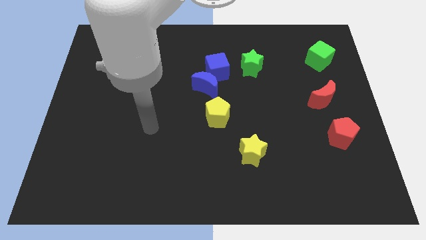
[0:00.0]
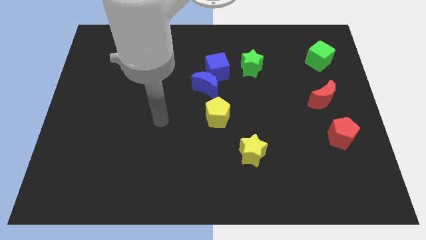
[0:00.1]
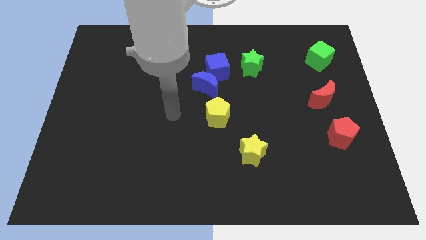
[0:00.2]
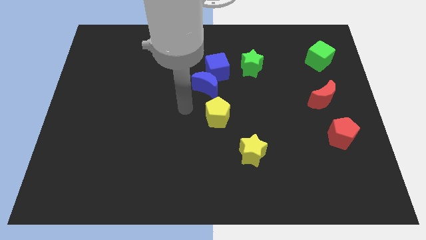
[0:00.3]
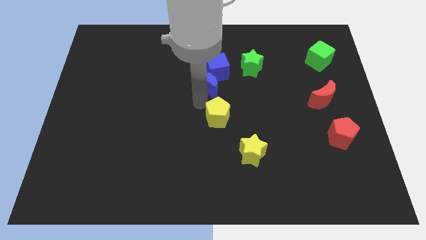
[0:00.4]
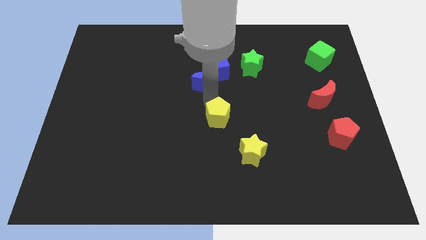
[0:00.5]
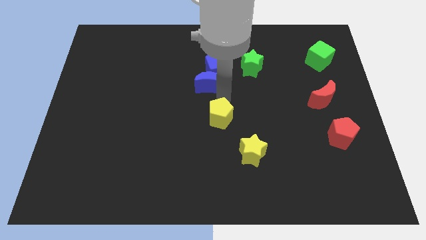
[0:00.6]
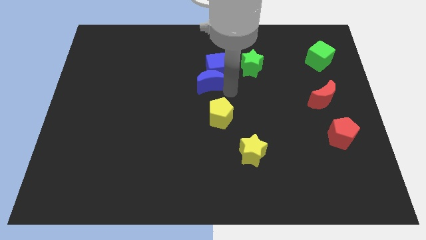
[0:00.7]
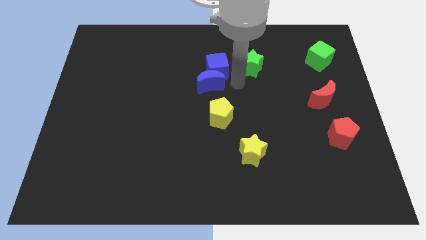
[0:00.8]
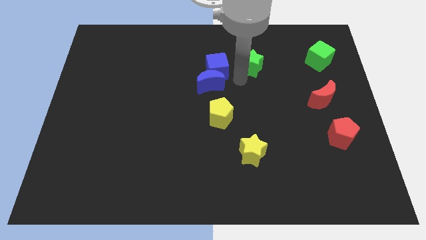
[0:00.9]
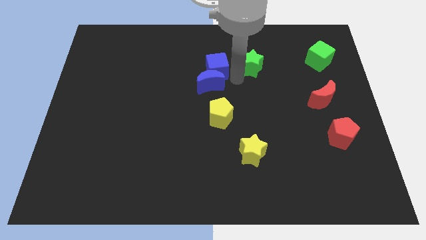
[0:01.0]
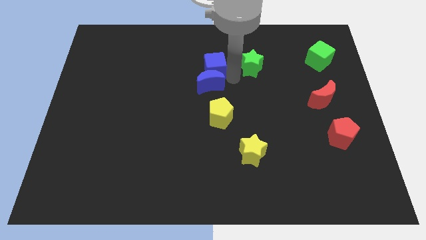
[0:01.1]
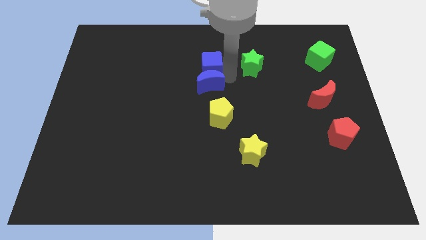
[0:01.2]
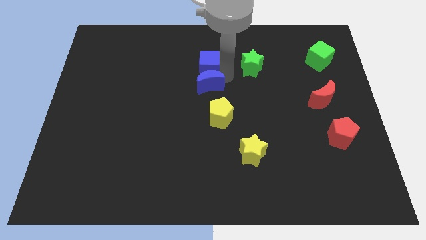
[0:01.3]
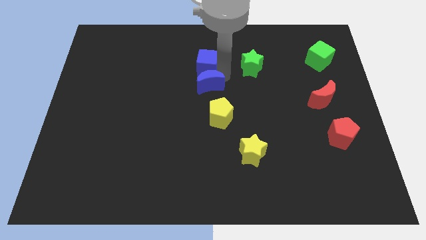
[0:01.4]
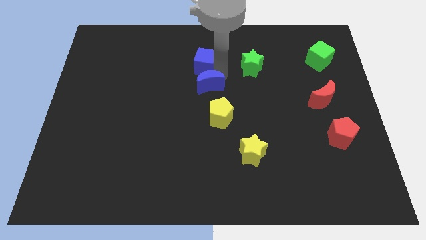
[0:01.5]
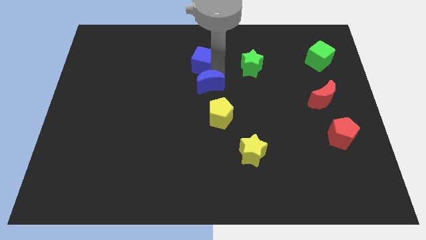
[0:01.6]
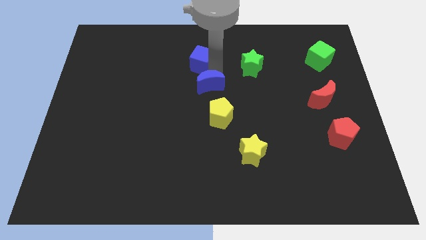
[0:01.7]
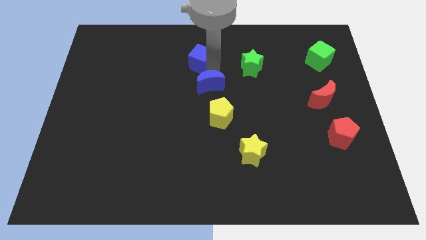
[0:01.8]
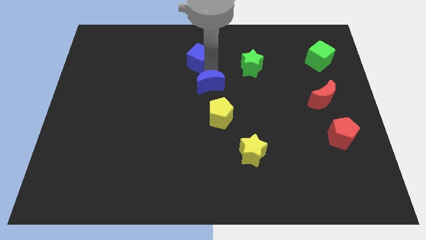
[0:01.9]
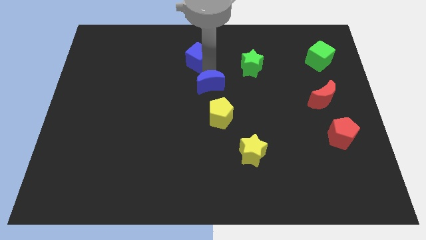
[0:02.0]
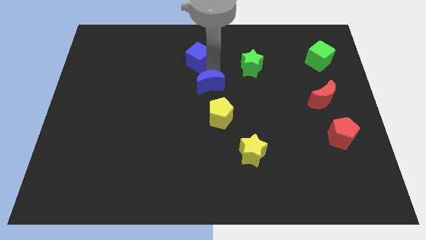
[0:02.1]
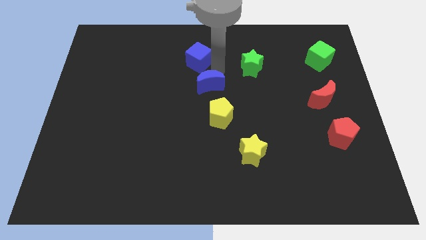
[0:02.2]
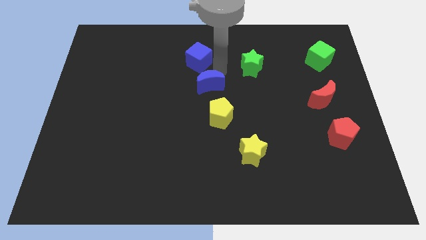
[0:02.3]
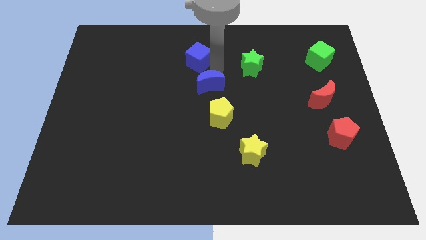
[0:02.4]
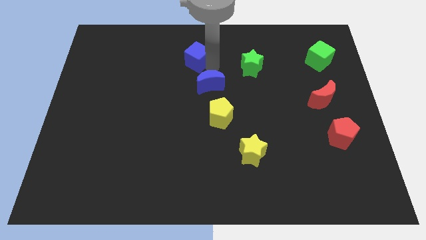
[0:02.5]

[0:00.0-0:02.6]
separate the blue cube from the blue moon and green star

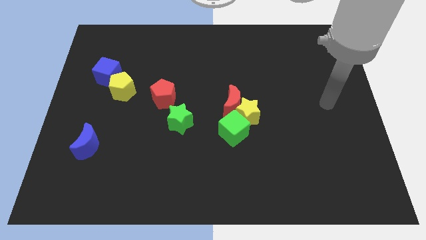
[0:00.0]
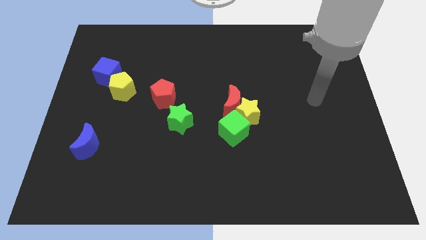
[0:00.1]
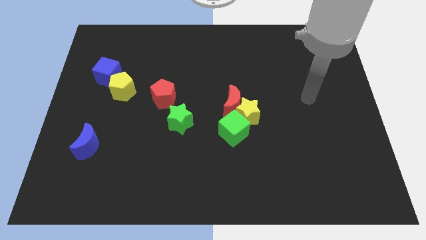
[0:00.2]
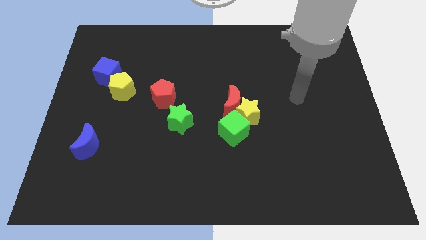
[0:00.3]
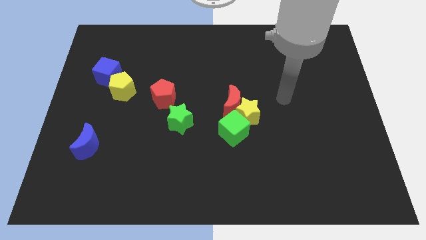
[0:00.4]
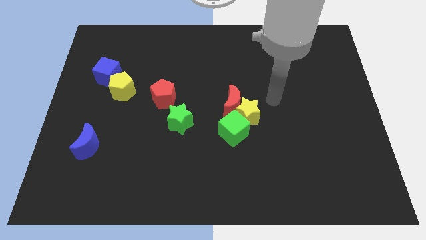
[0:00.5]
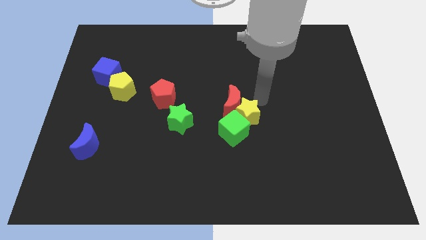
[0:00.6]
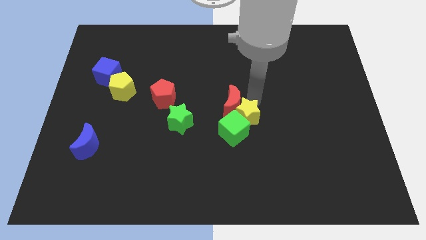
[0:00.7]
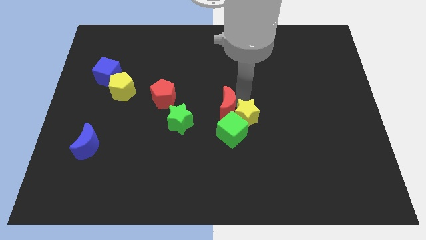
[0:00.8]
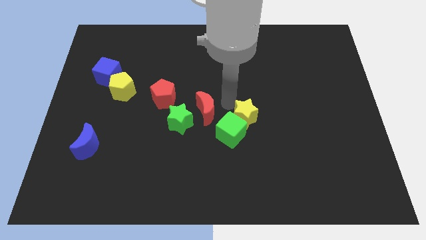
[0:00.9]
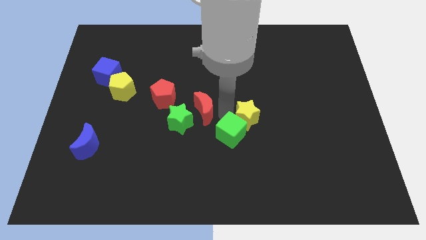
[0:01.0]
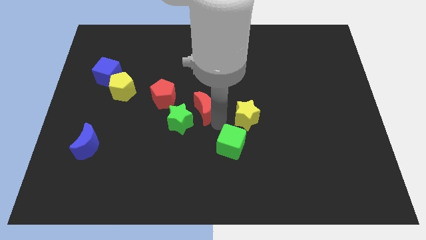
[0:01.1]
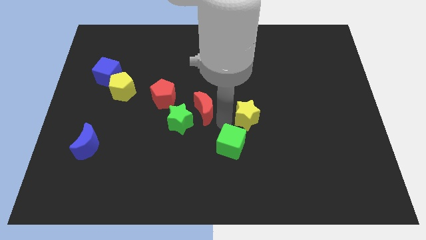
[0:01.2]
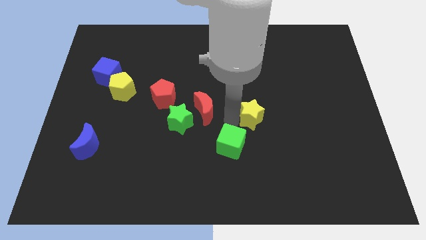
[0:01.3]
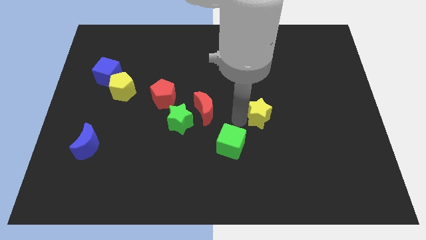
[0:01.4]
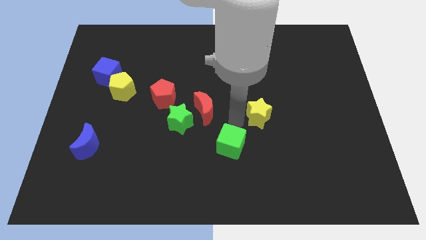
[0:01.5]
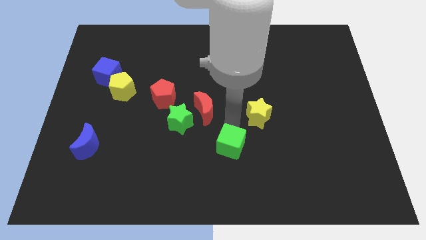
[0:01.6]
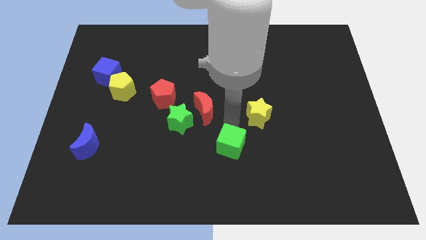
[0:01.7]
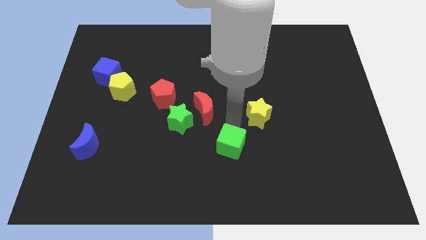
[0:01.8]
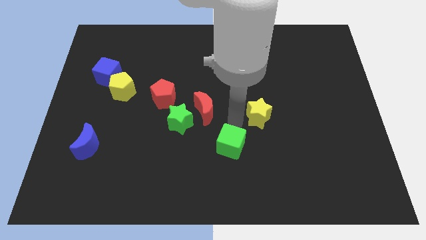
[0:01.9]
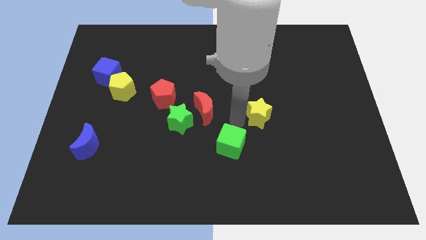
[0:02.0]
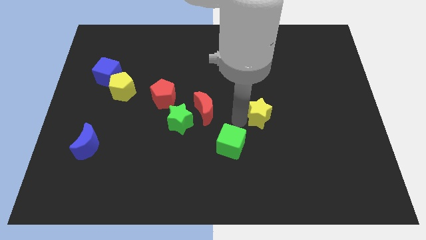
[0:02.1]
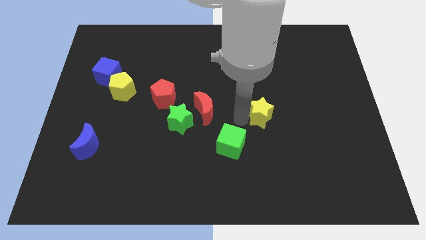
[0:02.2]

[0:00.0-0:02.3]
move the yellow star away from the red moon and green cube

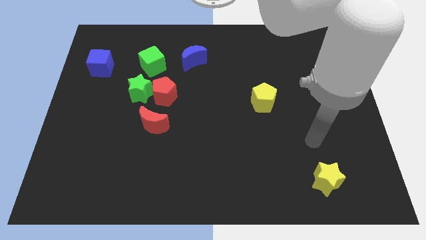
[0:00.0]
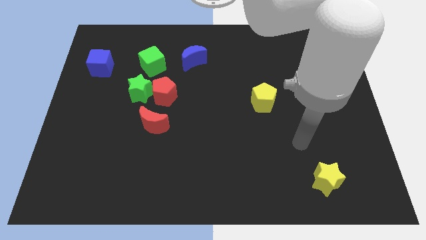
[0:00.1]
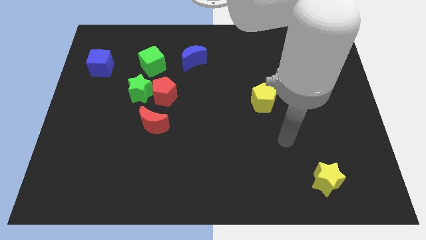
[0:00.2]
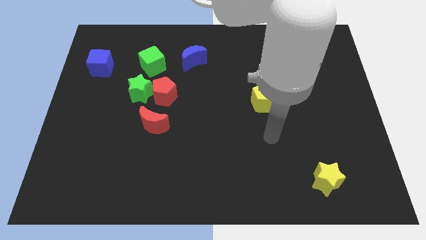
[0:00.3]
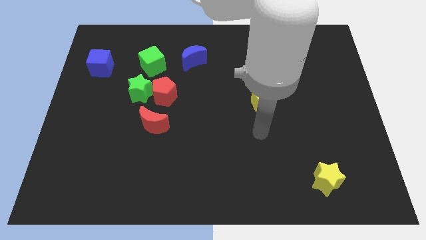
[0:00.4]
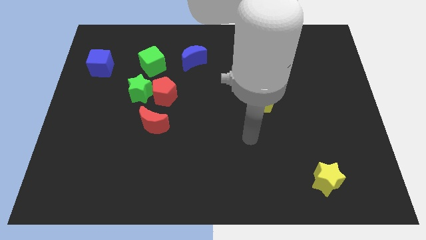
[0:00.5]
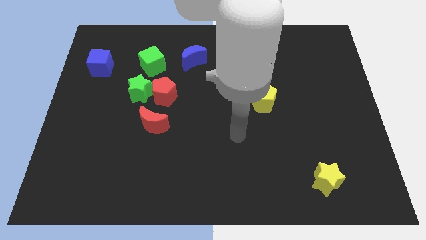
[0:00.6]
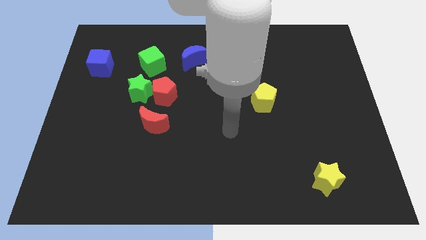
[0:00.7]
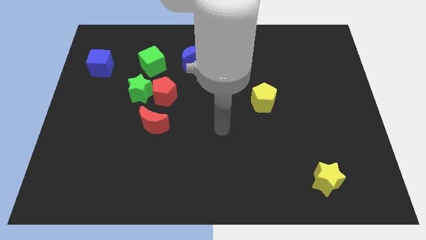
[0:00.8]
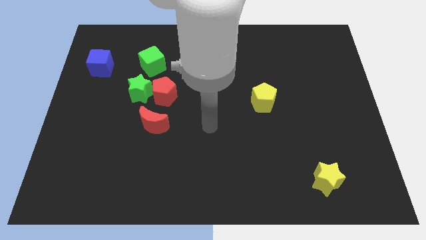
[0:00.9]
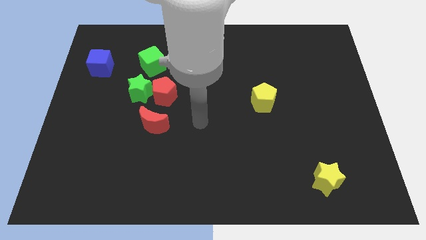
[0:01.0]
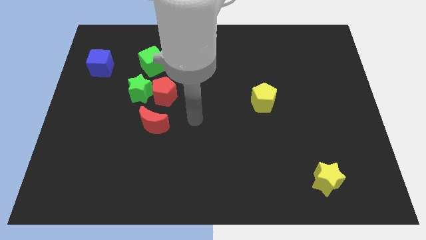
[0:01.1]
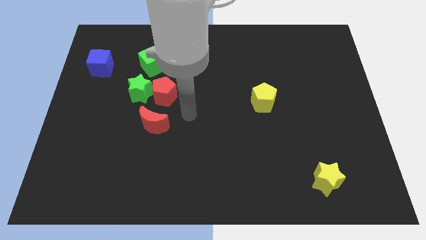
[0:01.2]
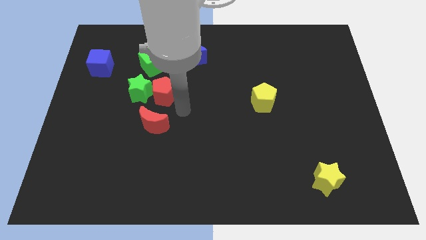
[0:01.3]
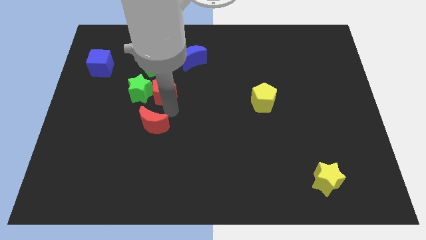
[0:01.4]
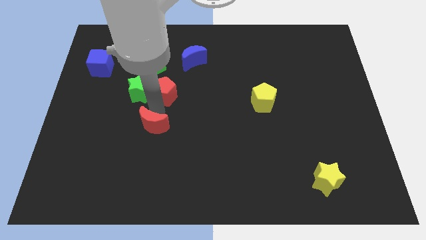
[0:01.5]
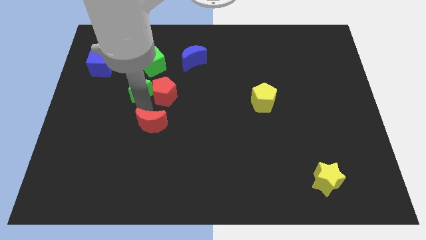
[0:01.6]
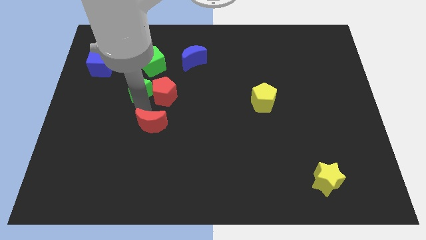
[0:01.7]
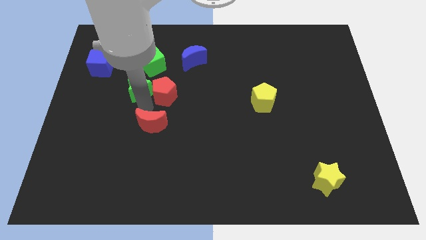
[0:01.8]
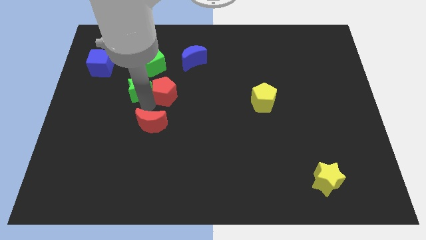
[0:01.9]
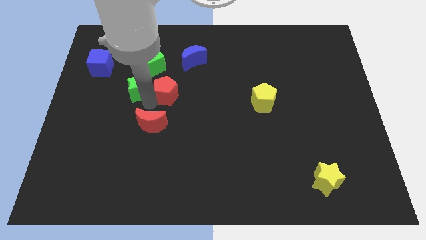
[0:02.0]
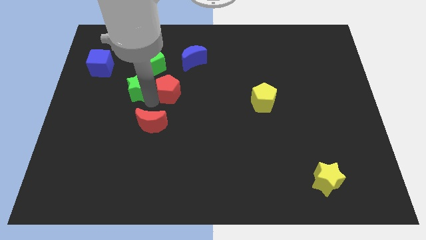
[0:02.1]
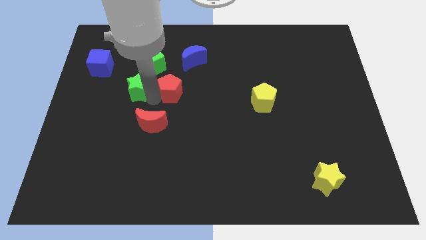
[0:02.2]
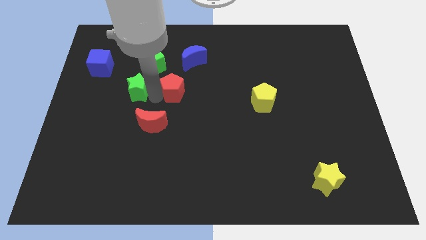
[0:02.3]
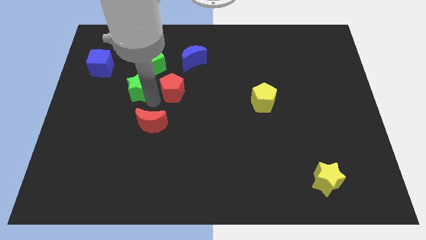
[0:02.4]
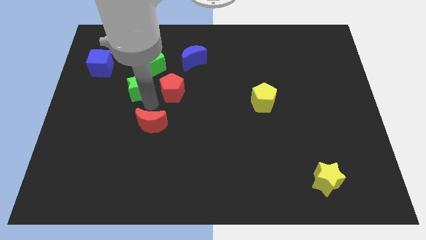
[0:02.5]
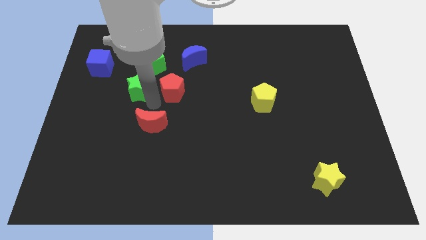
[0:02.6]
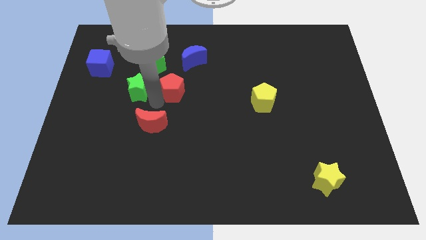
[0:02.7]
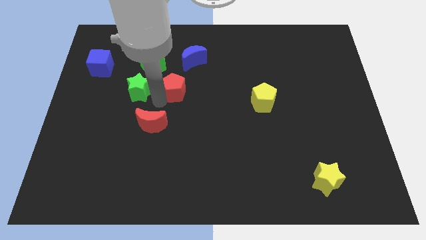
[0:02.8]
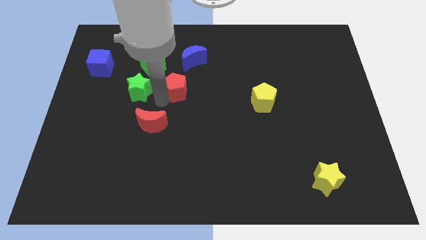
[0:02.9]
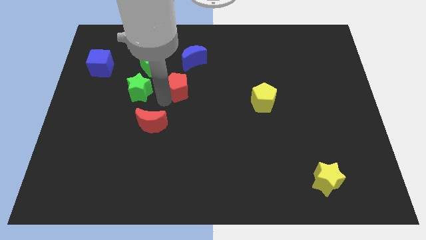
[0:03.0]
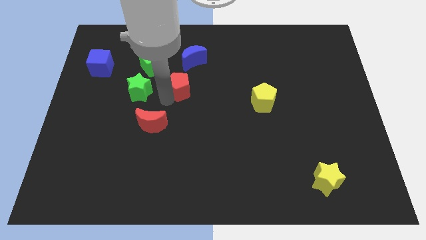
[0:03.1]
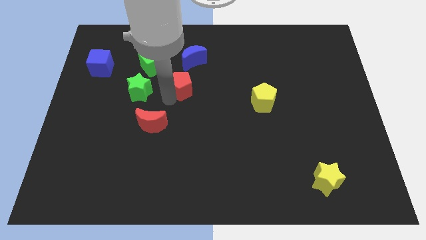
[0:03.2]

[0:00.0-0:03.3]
move the red pentagon away from the green star and red moon

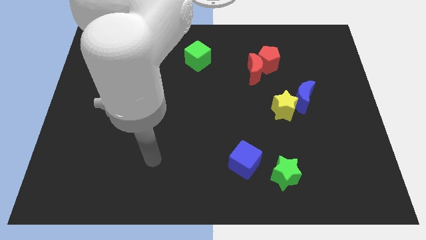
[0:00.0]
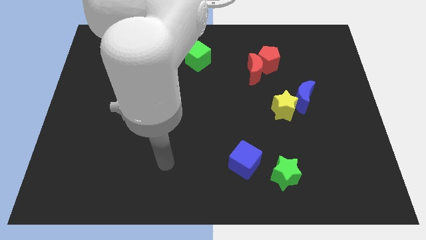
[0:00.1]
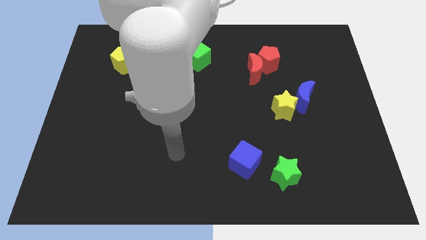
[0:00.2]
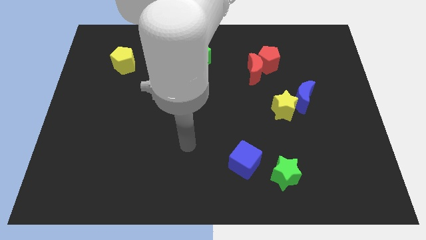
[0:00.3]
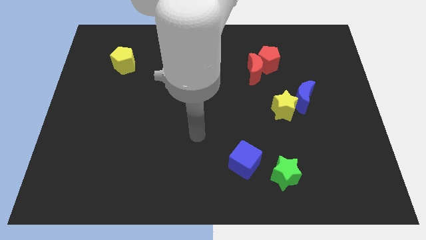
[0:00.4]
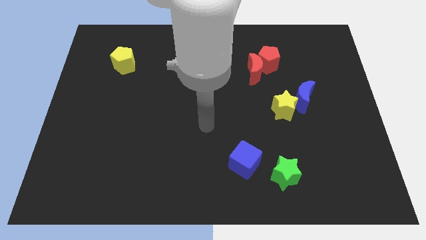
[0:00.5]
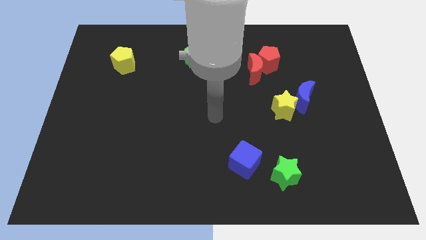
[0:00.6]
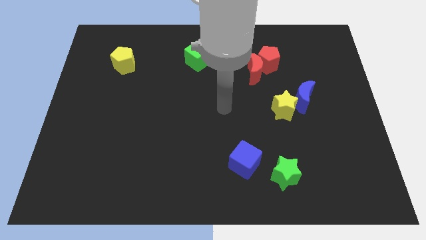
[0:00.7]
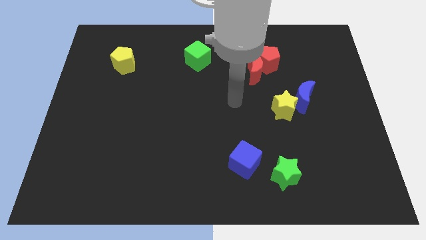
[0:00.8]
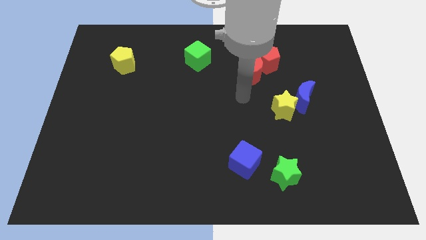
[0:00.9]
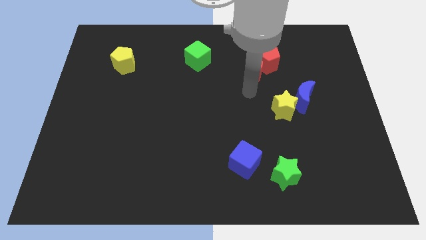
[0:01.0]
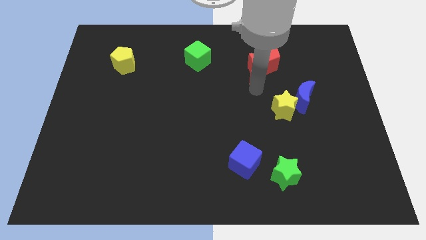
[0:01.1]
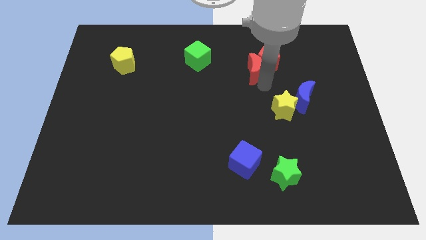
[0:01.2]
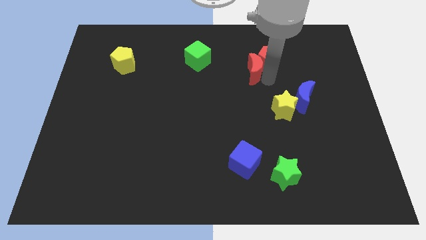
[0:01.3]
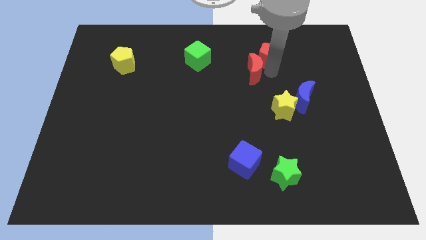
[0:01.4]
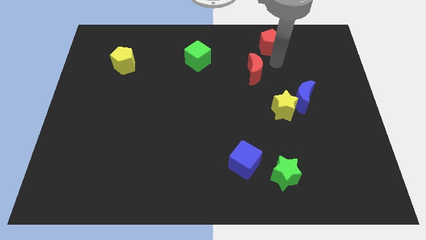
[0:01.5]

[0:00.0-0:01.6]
separate the red moon from the red pentagon
